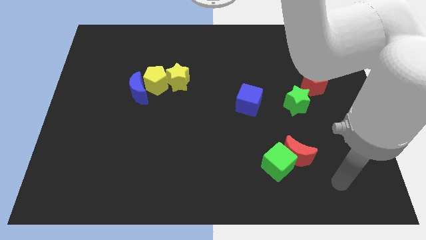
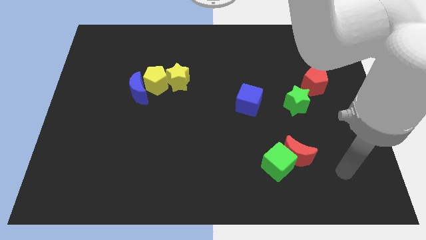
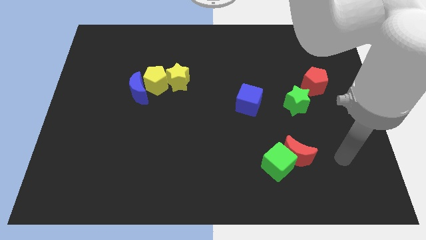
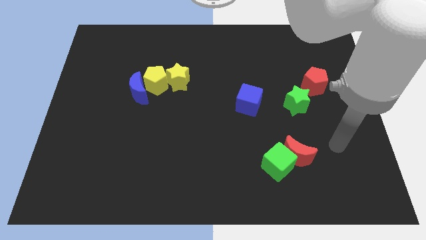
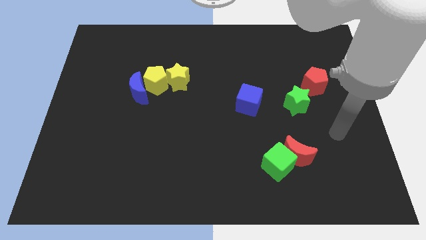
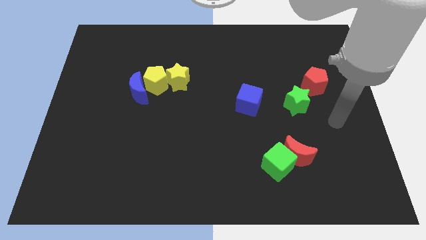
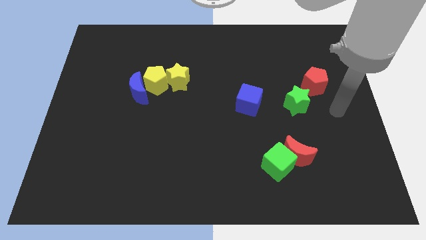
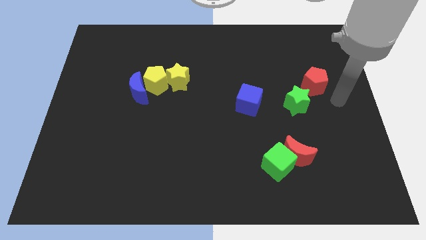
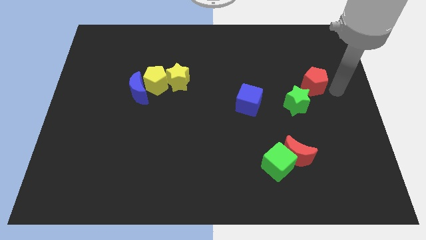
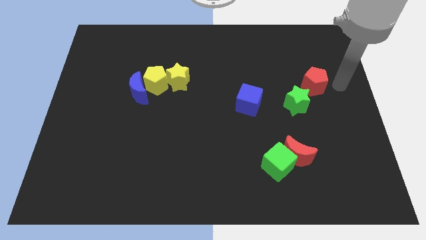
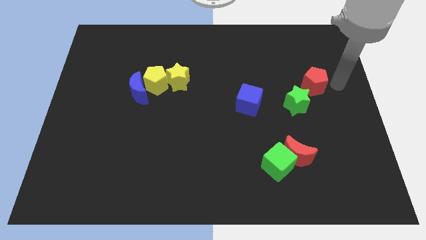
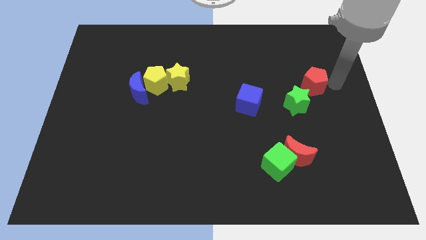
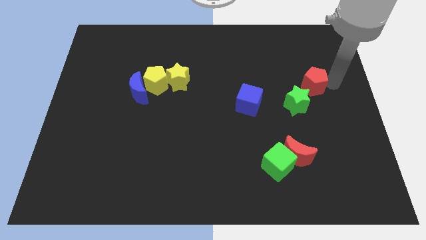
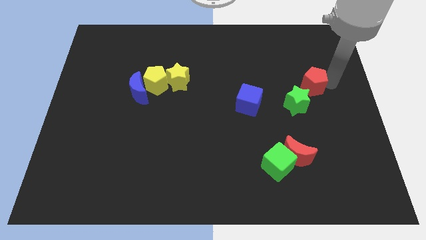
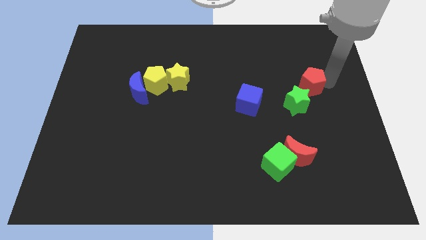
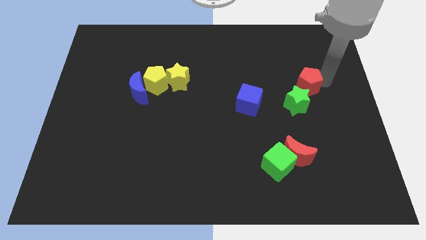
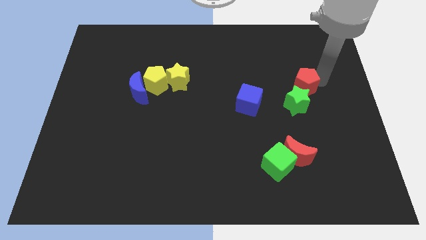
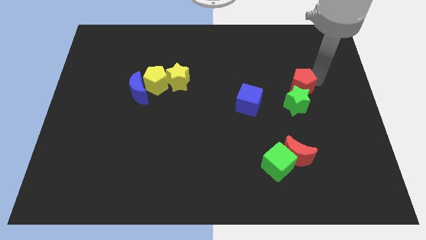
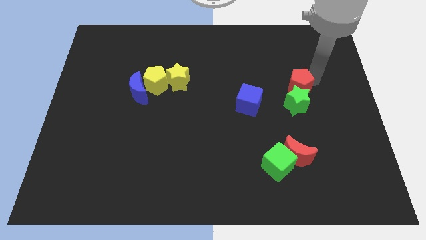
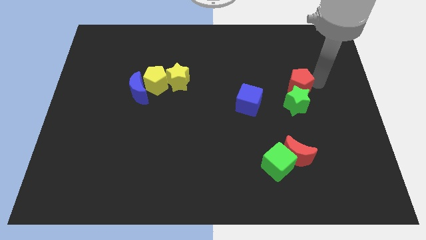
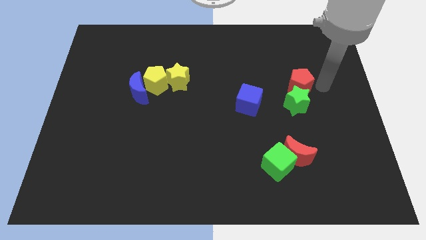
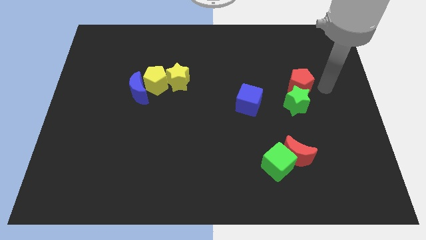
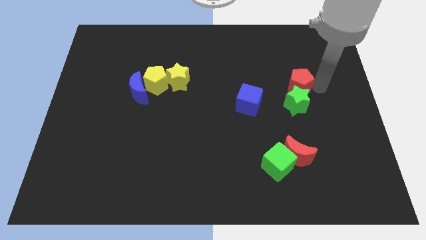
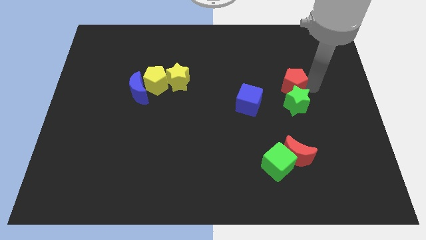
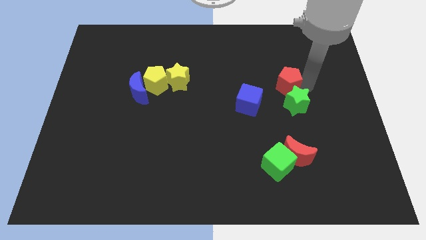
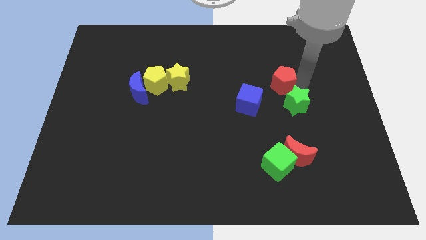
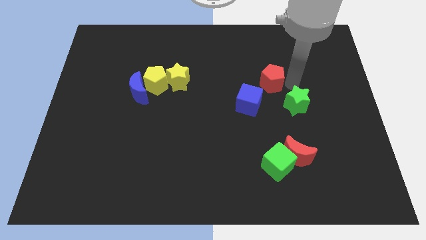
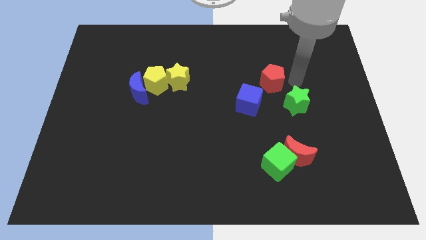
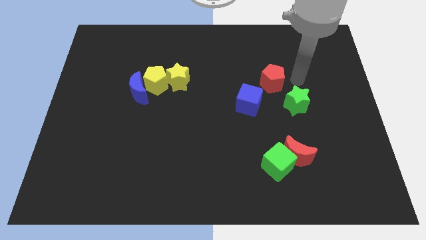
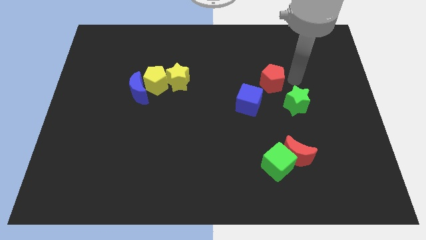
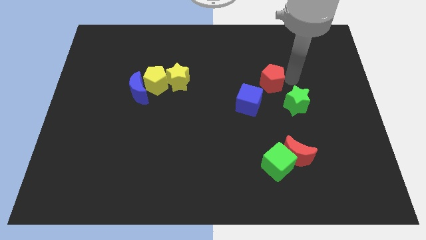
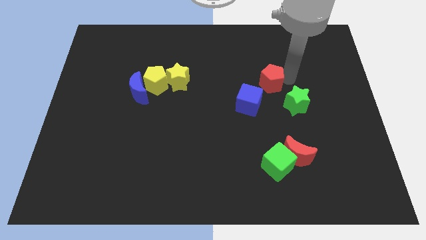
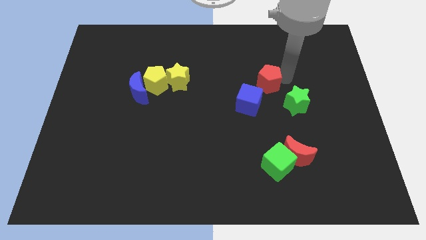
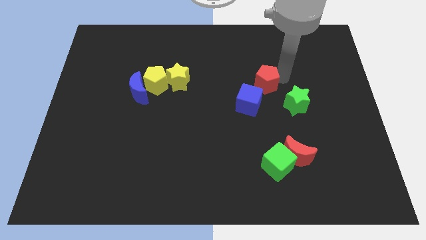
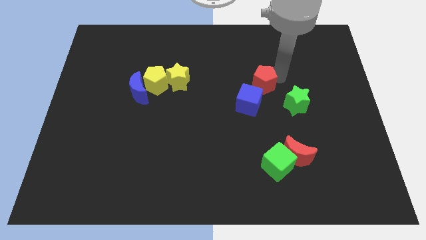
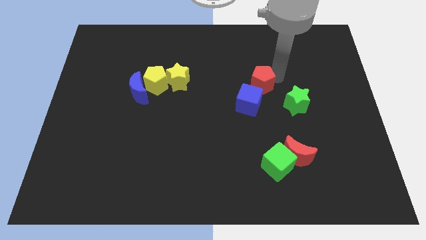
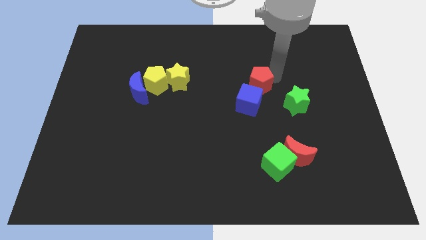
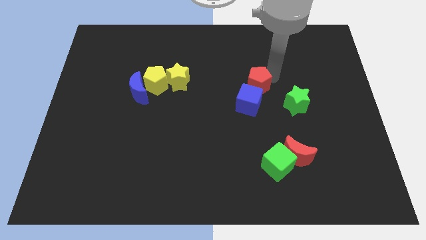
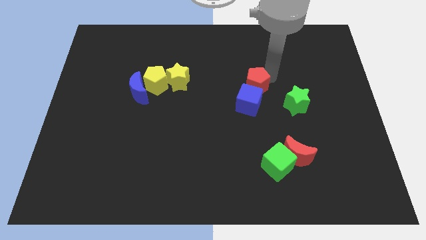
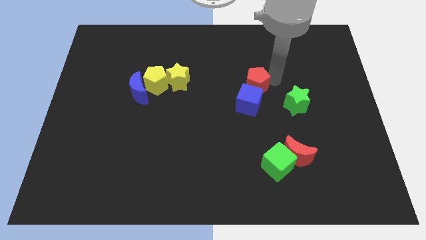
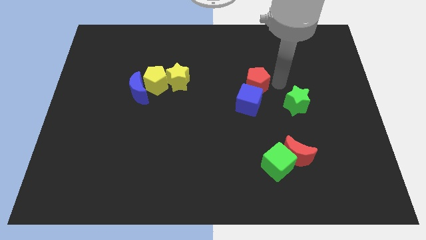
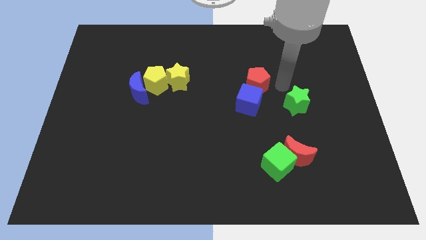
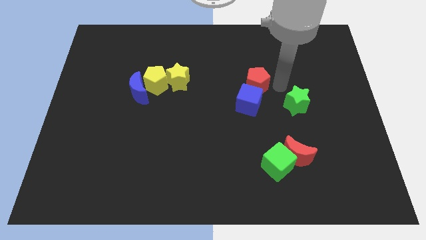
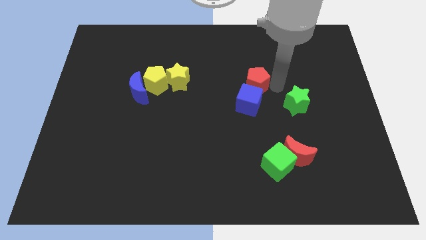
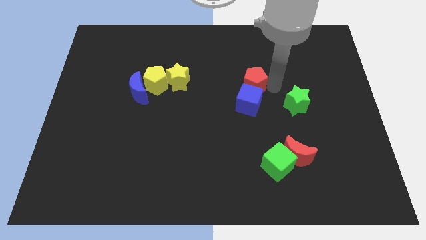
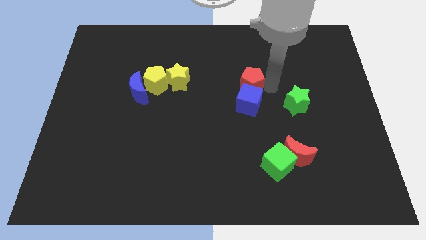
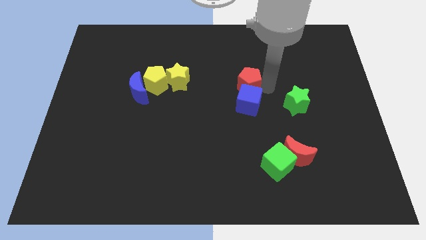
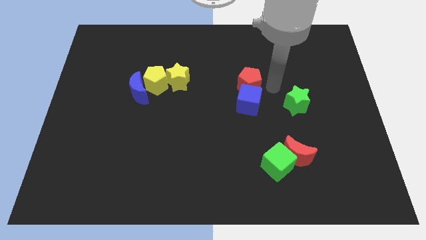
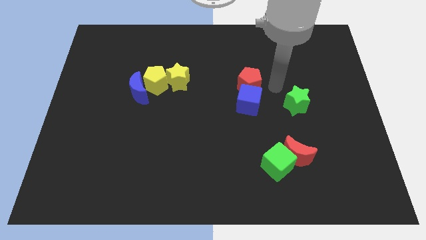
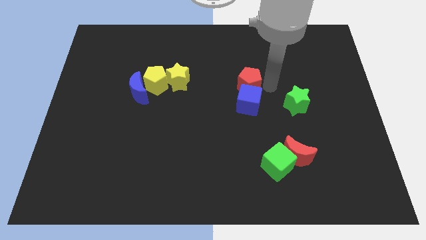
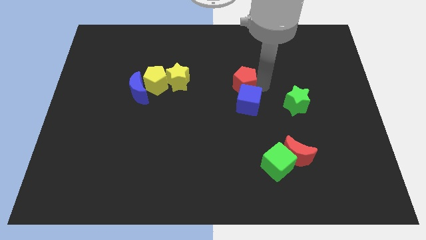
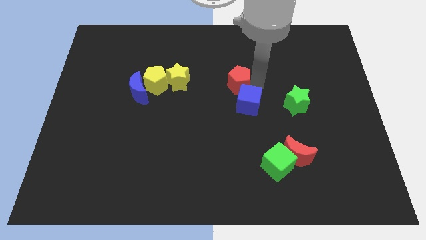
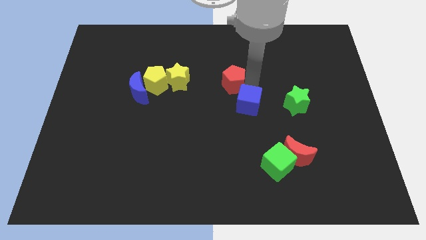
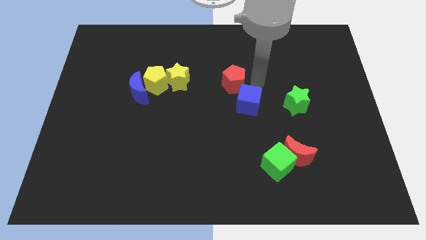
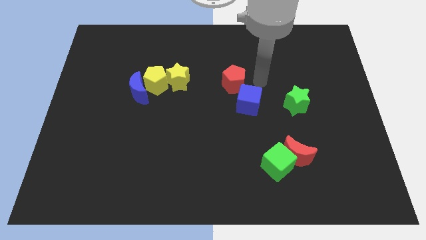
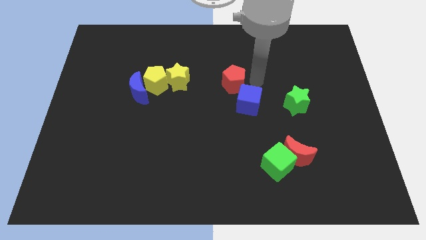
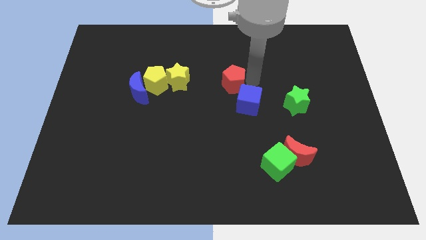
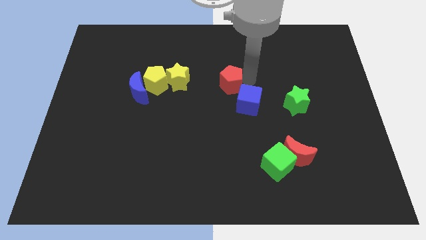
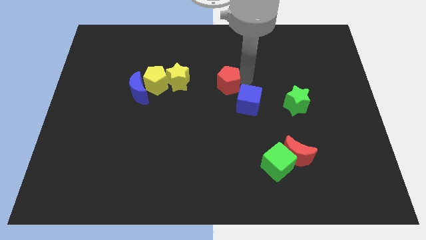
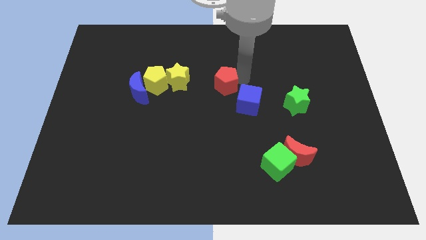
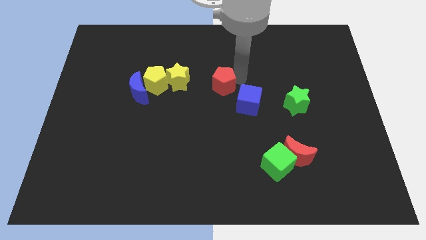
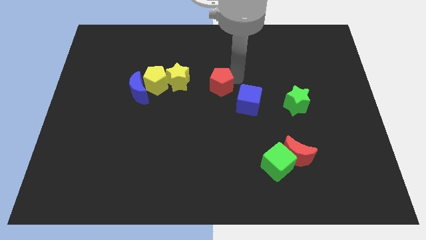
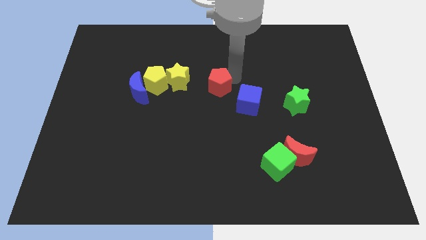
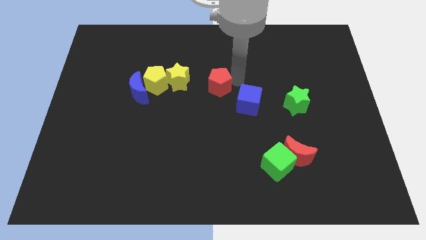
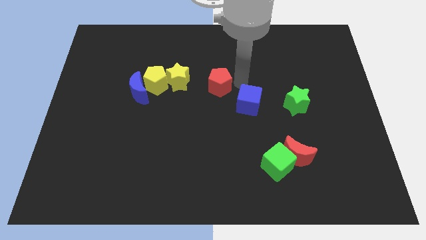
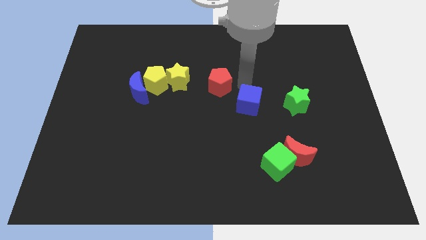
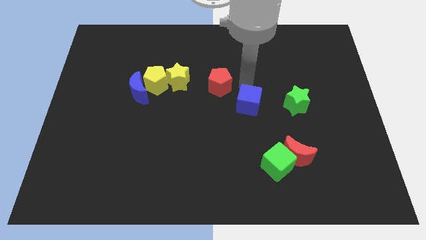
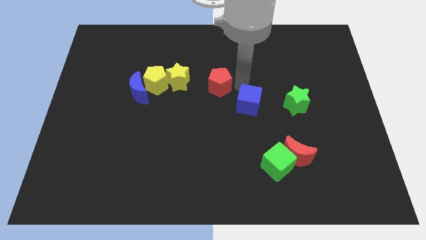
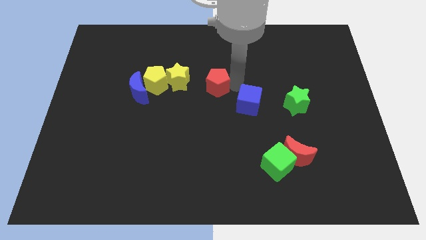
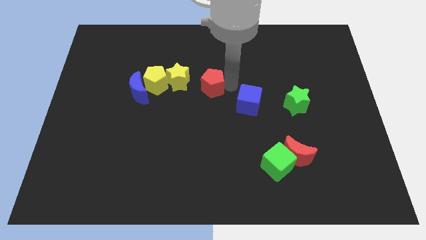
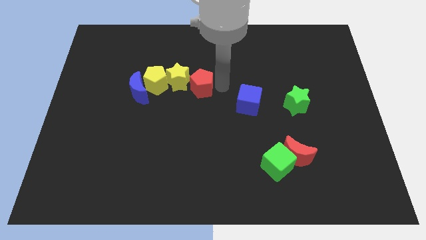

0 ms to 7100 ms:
put the red pentagon next to the yellow star

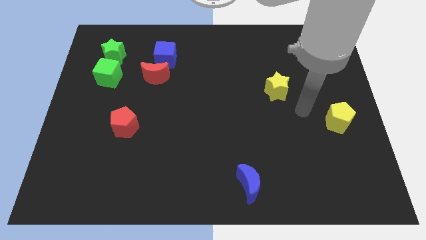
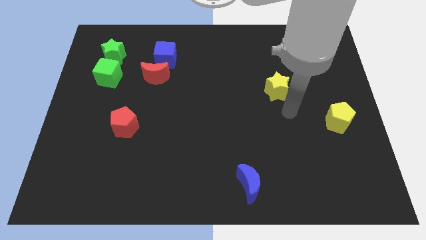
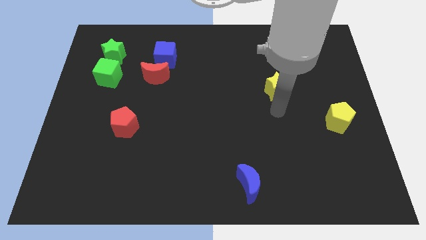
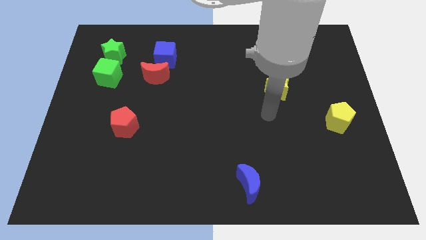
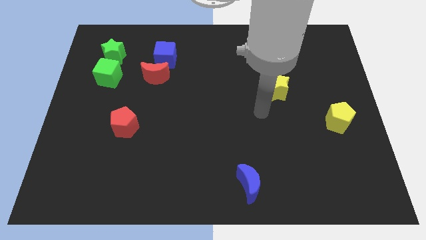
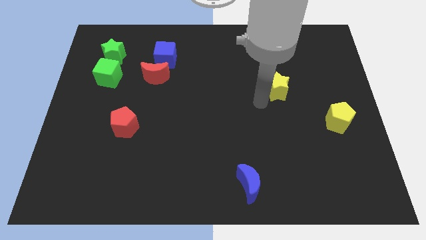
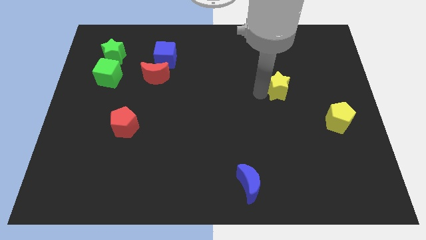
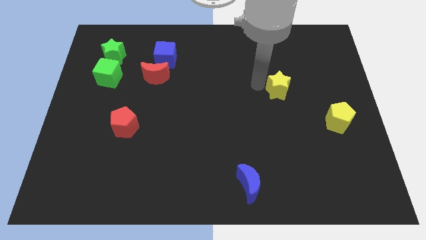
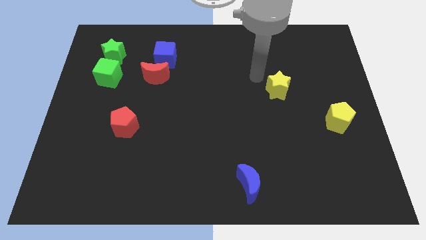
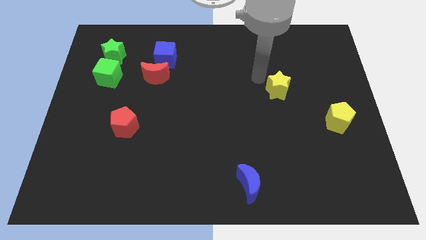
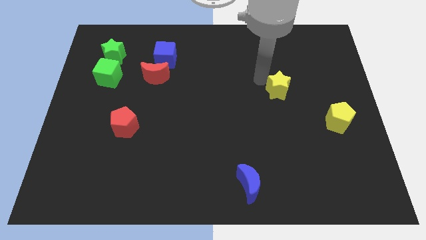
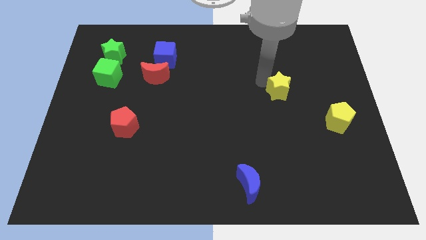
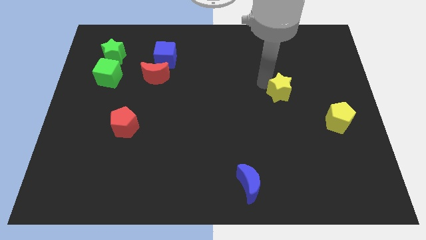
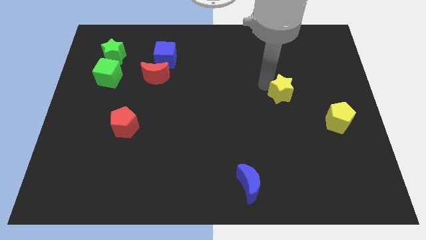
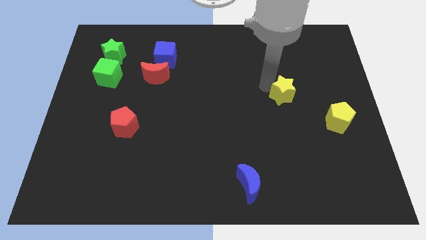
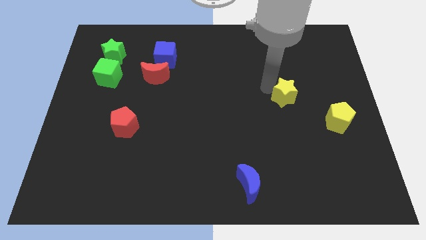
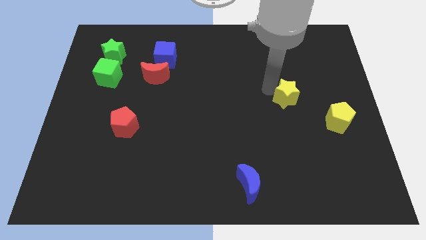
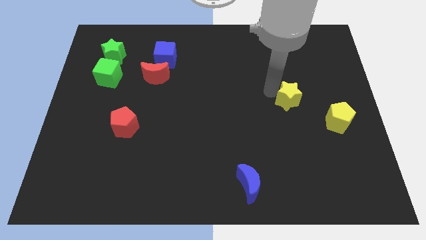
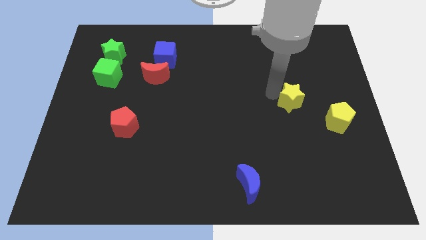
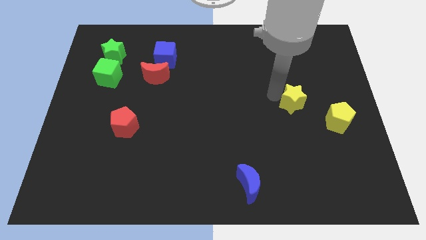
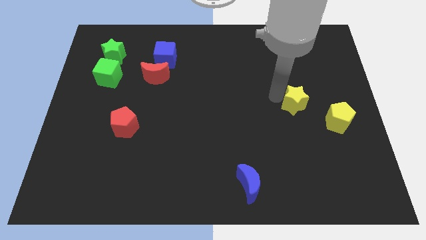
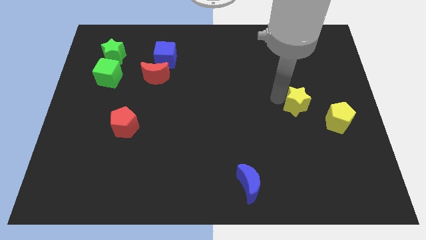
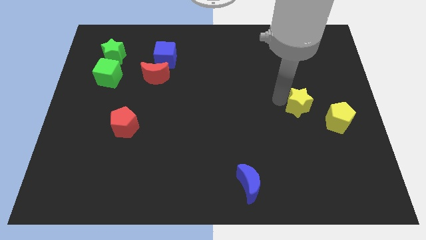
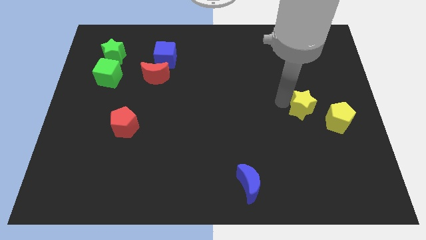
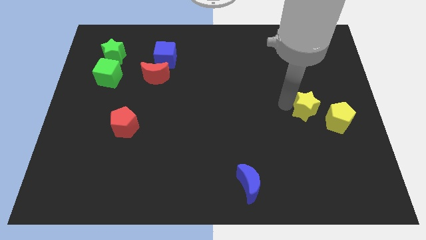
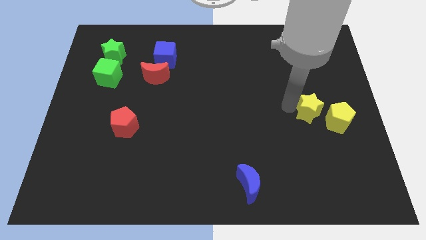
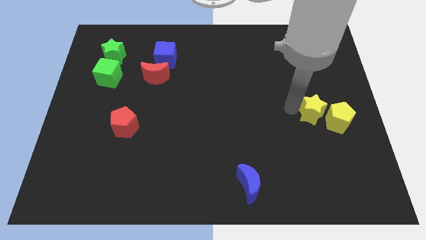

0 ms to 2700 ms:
push the yellow star next to the yellow pentagon
